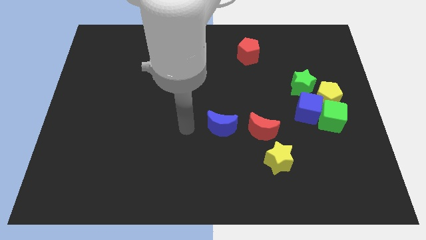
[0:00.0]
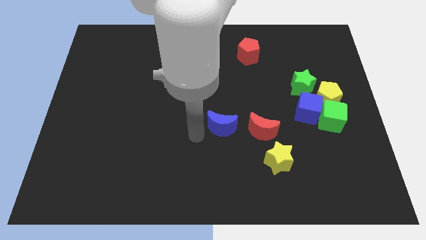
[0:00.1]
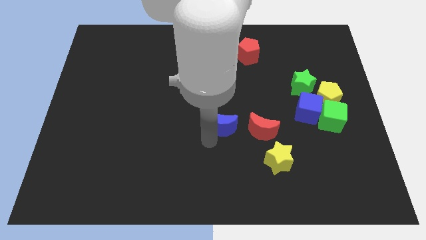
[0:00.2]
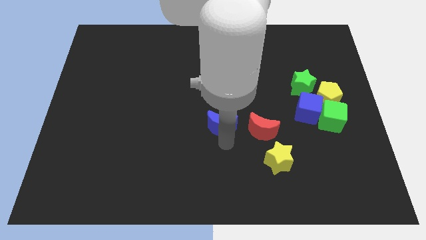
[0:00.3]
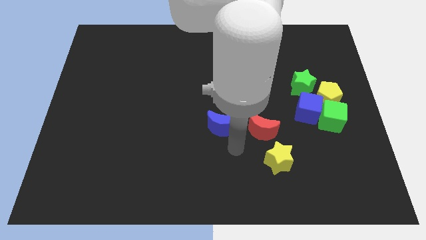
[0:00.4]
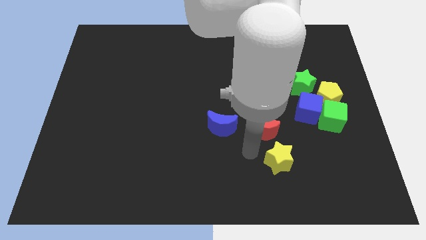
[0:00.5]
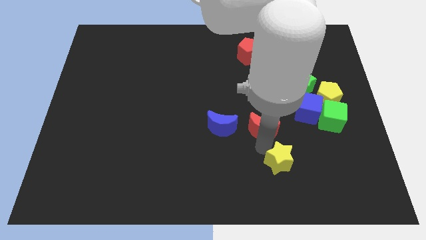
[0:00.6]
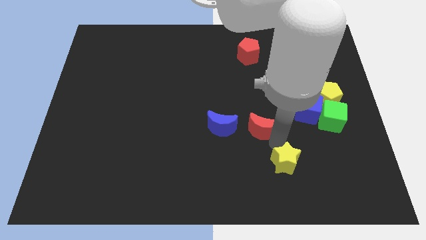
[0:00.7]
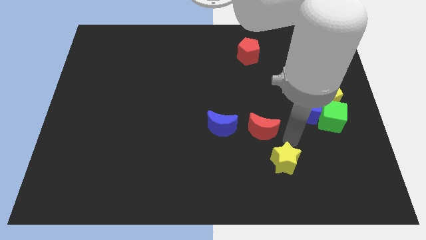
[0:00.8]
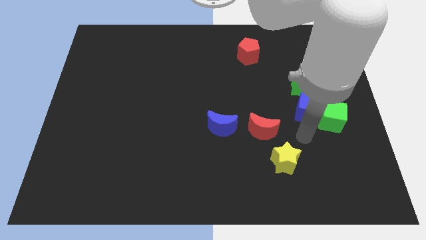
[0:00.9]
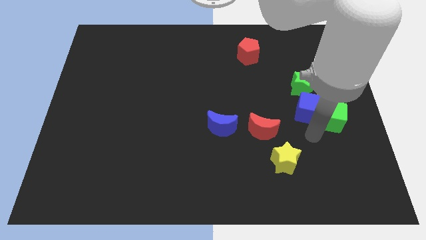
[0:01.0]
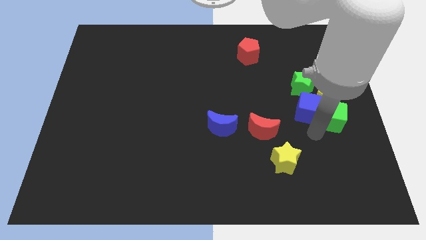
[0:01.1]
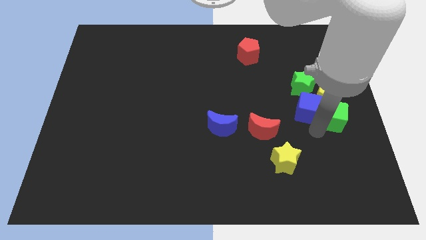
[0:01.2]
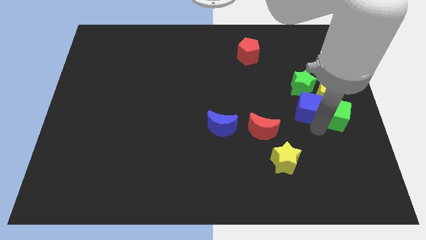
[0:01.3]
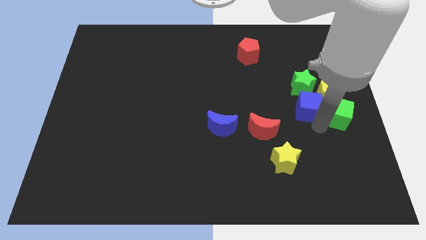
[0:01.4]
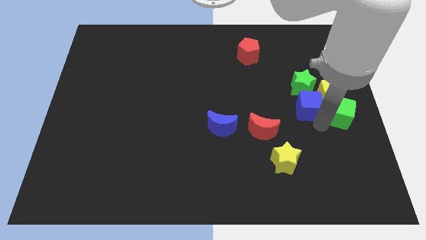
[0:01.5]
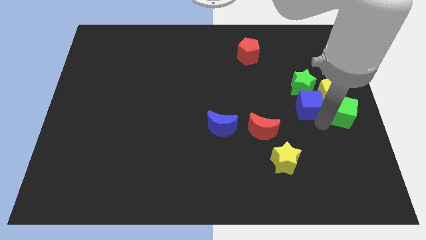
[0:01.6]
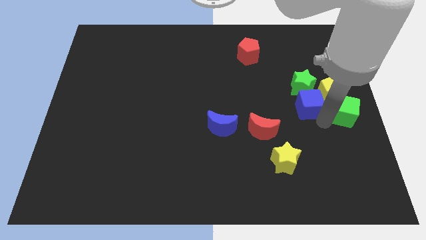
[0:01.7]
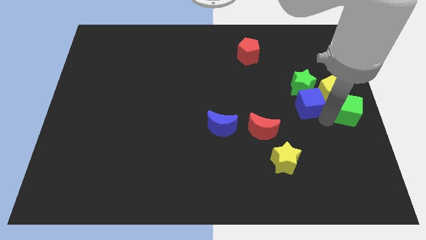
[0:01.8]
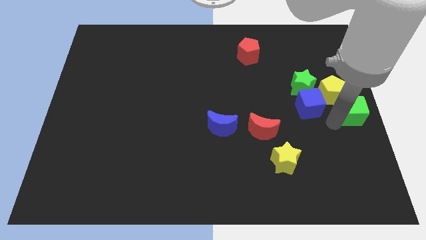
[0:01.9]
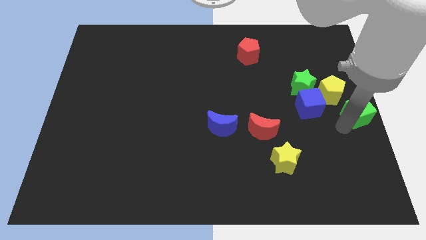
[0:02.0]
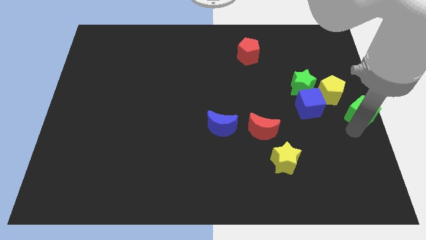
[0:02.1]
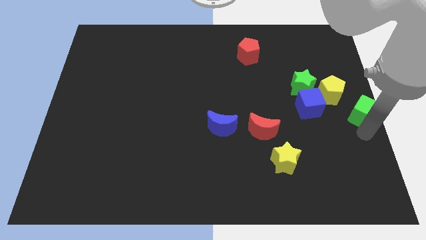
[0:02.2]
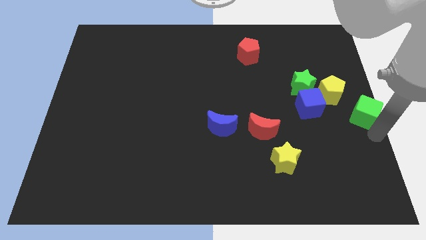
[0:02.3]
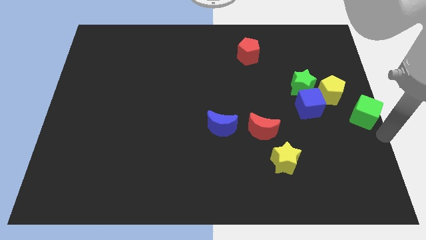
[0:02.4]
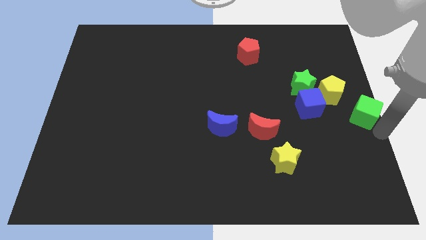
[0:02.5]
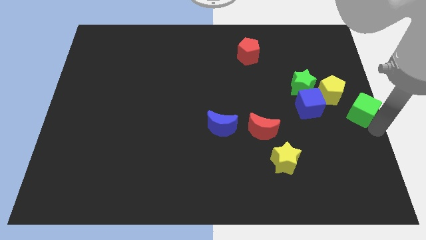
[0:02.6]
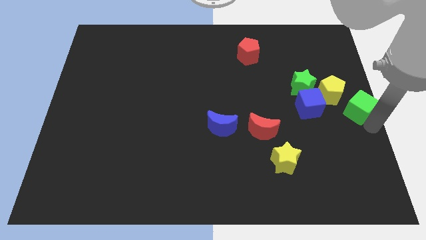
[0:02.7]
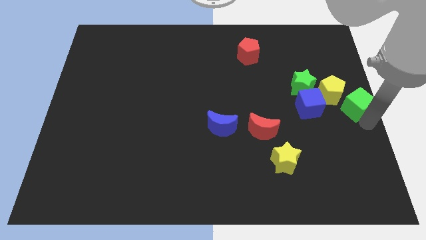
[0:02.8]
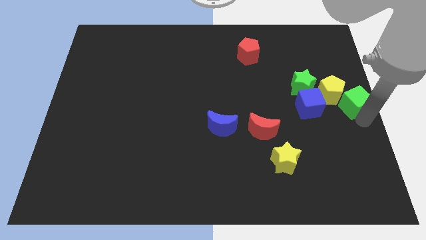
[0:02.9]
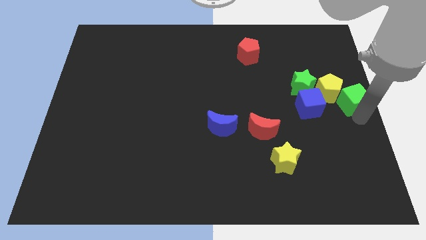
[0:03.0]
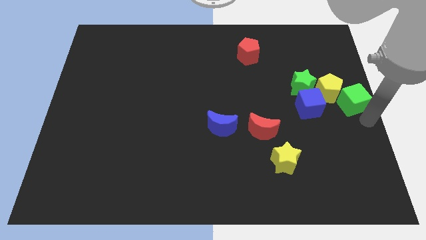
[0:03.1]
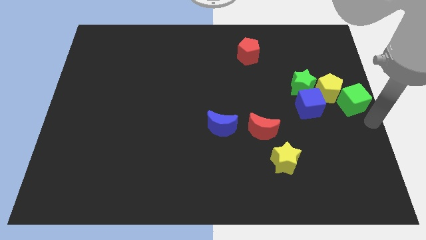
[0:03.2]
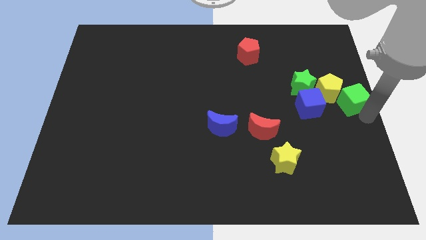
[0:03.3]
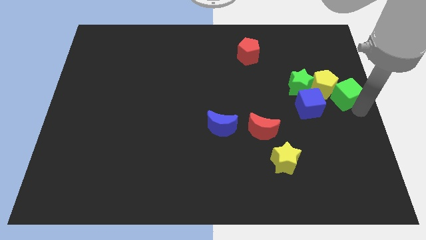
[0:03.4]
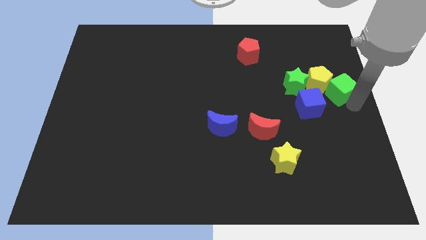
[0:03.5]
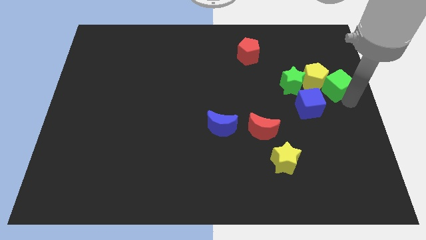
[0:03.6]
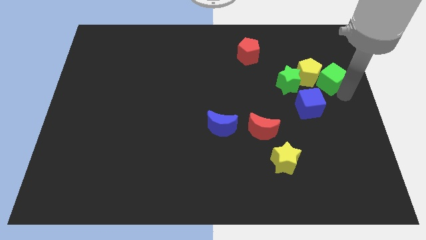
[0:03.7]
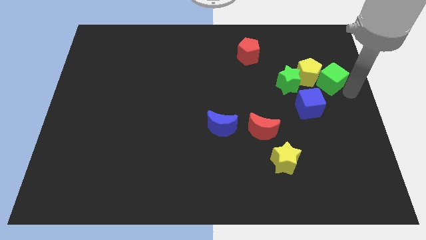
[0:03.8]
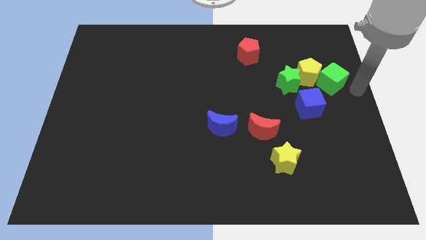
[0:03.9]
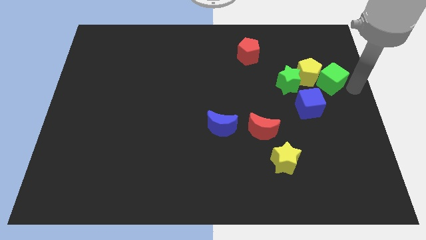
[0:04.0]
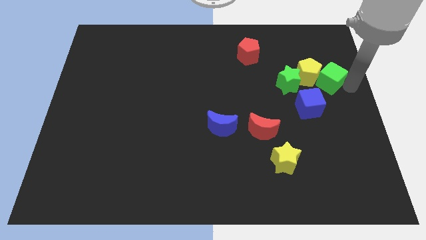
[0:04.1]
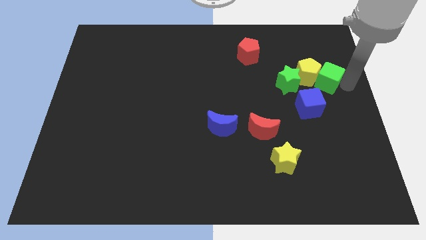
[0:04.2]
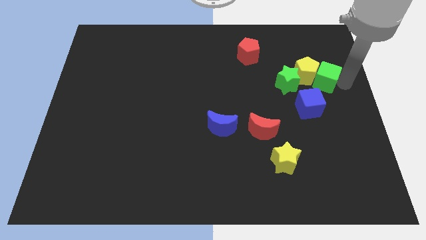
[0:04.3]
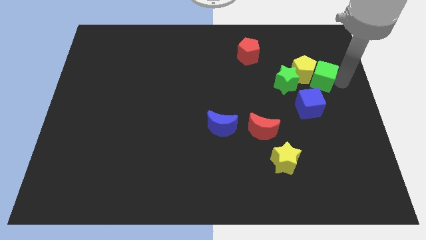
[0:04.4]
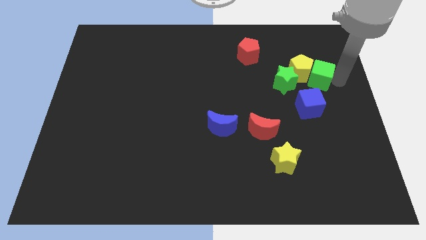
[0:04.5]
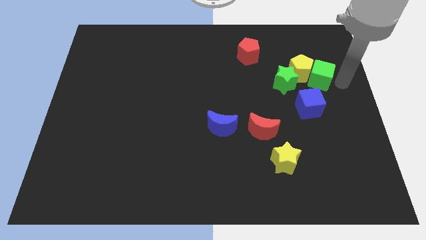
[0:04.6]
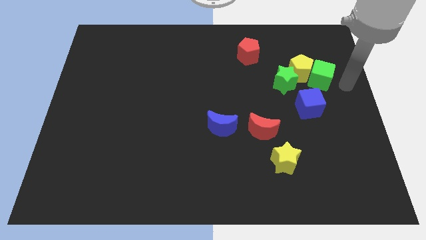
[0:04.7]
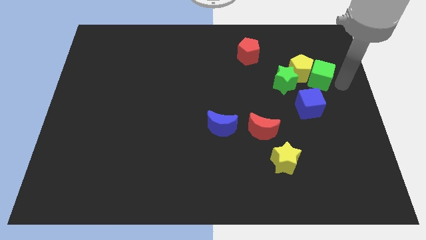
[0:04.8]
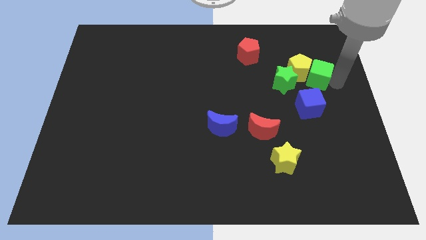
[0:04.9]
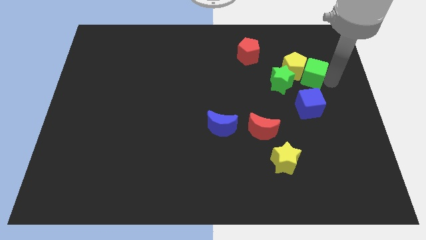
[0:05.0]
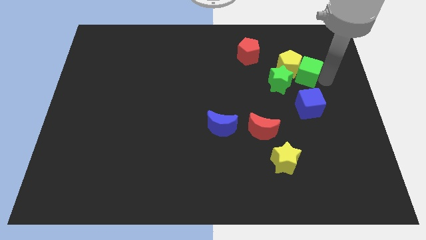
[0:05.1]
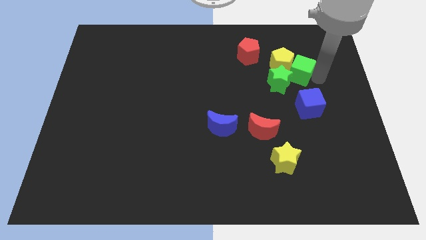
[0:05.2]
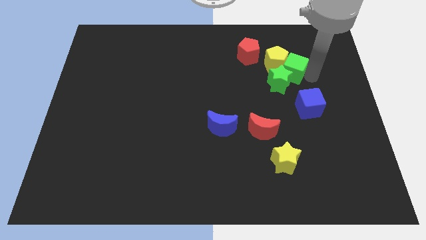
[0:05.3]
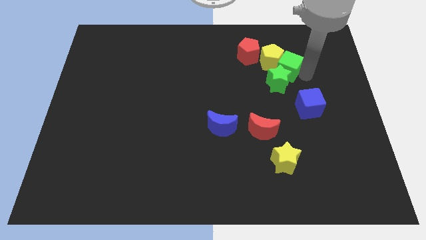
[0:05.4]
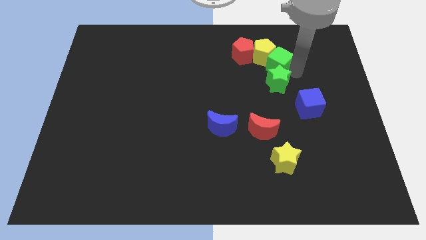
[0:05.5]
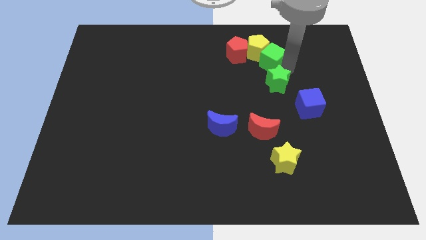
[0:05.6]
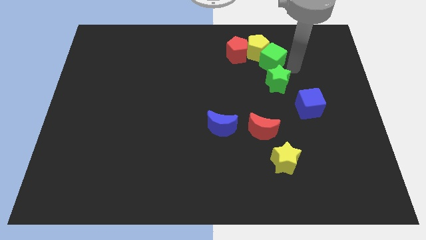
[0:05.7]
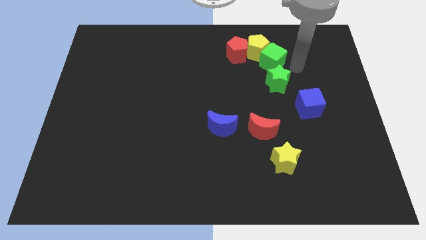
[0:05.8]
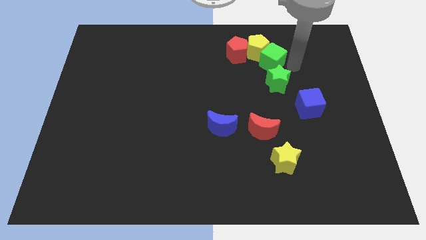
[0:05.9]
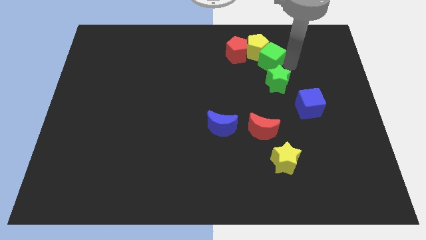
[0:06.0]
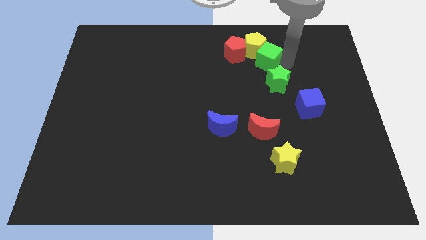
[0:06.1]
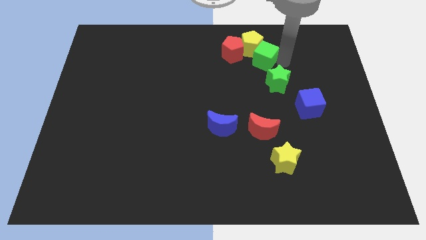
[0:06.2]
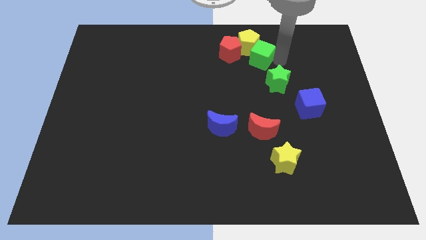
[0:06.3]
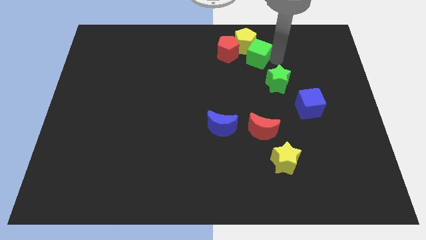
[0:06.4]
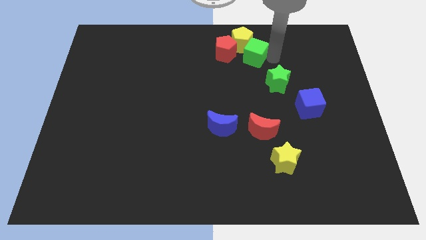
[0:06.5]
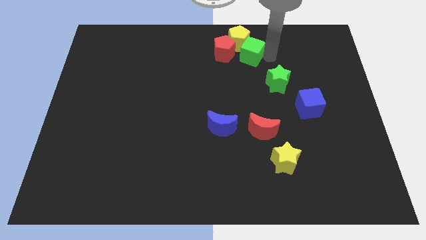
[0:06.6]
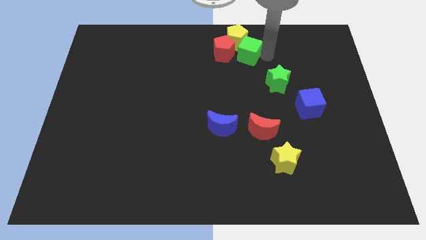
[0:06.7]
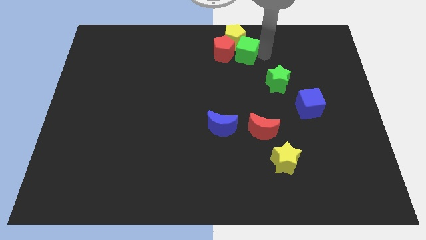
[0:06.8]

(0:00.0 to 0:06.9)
put the green cube towards the red pentagon
